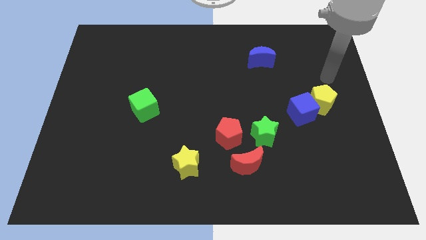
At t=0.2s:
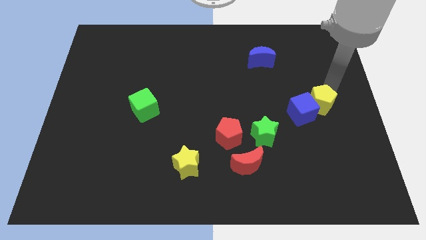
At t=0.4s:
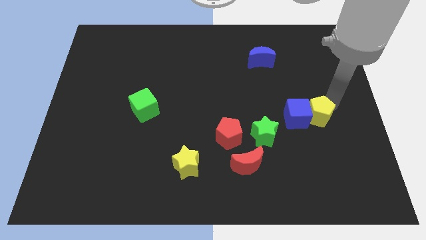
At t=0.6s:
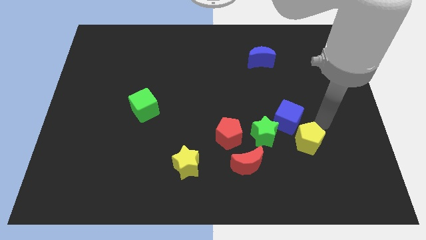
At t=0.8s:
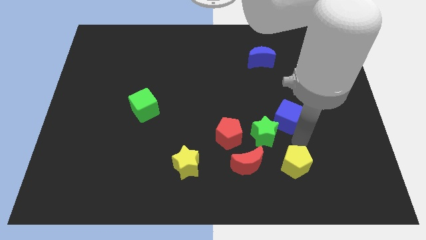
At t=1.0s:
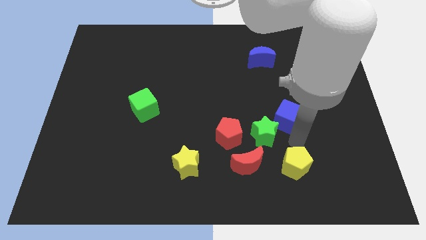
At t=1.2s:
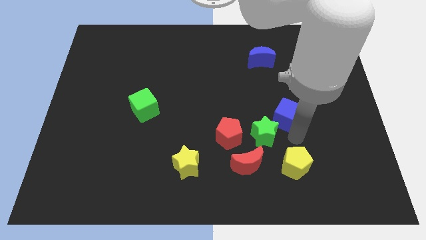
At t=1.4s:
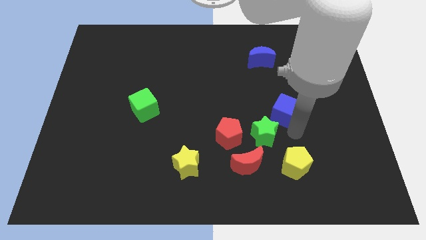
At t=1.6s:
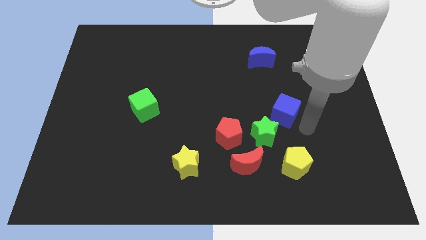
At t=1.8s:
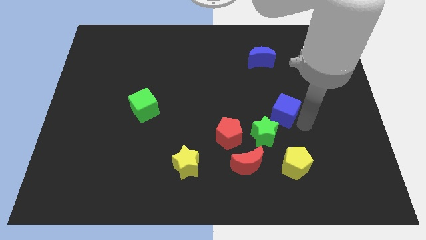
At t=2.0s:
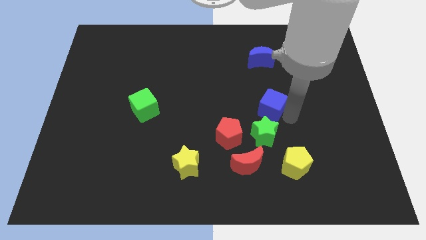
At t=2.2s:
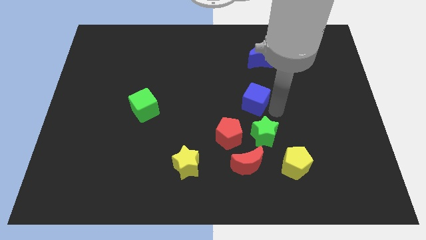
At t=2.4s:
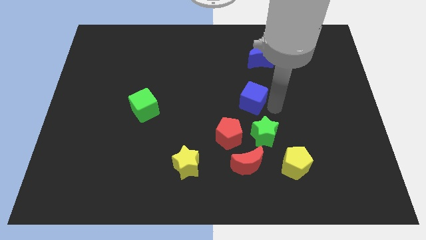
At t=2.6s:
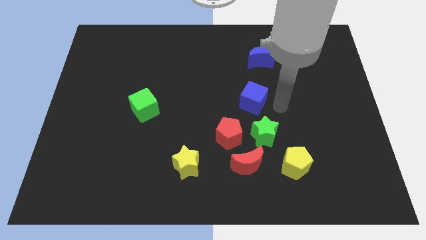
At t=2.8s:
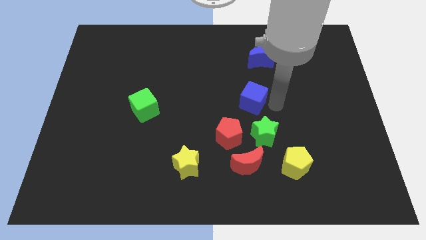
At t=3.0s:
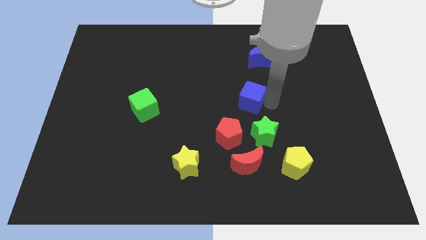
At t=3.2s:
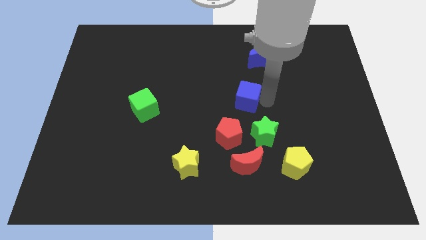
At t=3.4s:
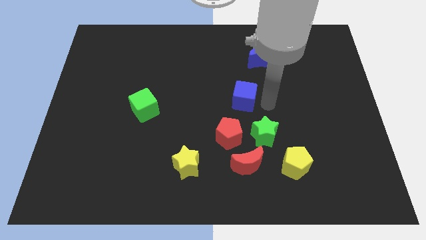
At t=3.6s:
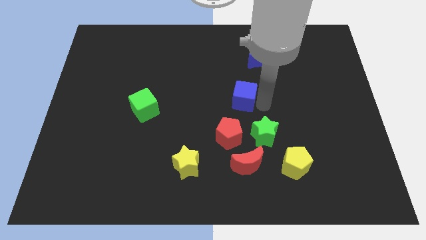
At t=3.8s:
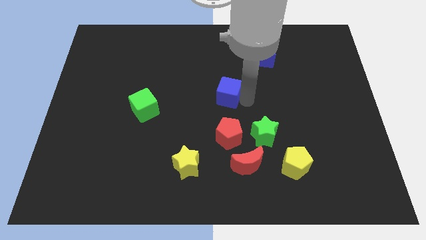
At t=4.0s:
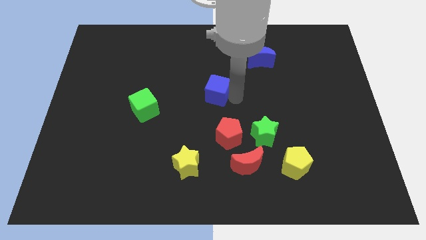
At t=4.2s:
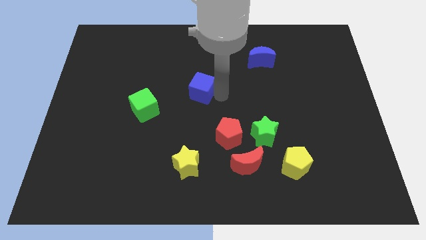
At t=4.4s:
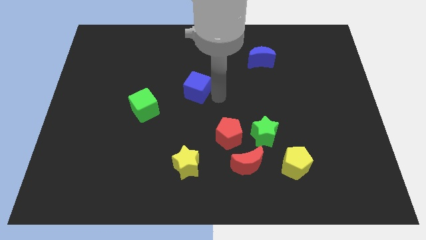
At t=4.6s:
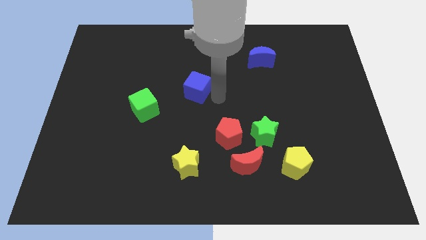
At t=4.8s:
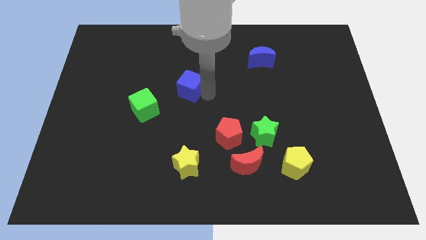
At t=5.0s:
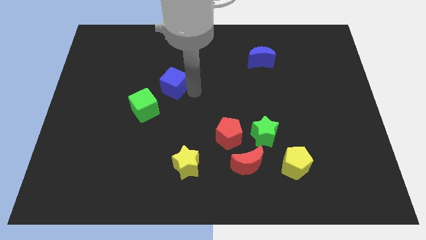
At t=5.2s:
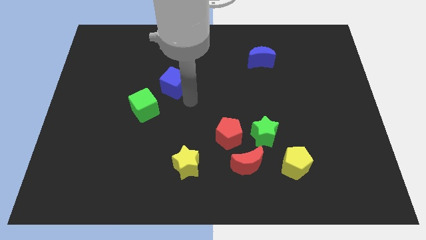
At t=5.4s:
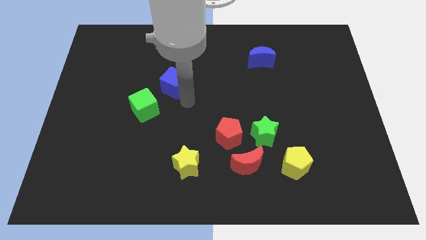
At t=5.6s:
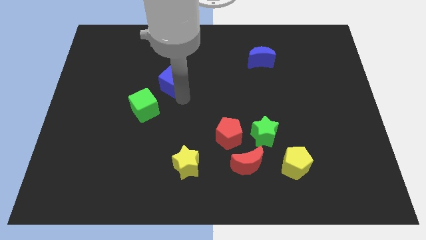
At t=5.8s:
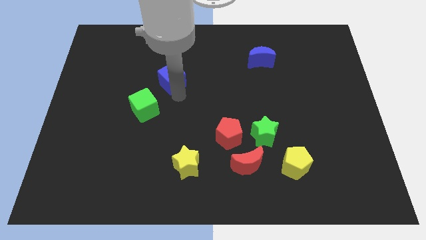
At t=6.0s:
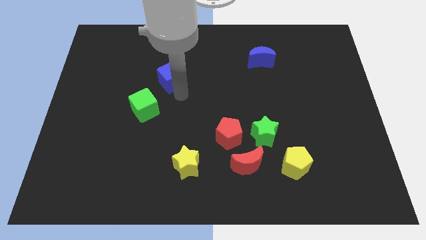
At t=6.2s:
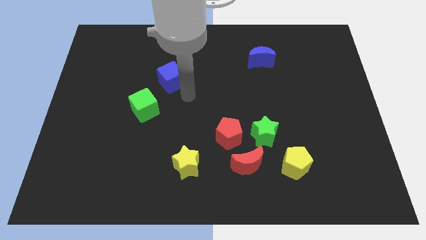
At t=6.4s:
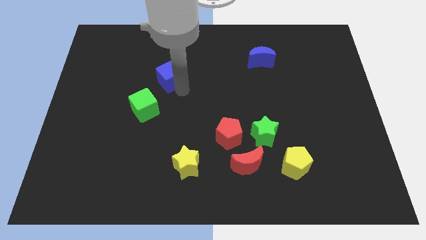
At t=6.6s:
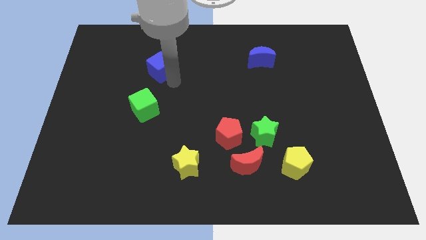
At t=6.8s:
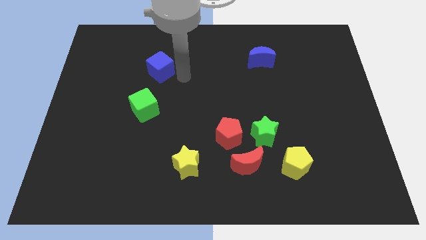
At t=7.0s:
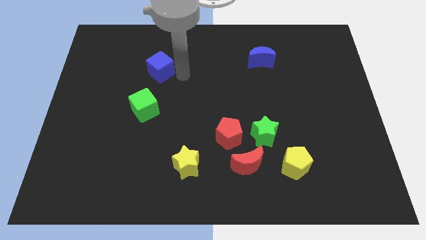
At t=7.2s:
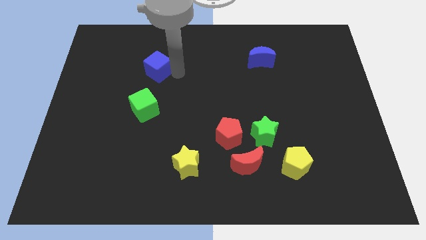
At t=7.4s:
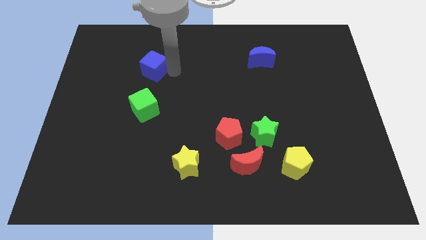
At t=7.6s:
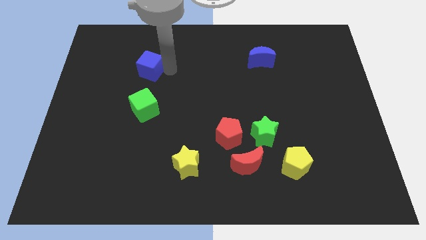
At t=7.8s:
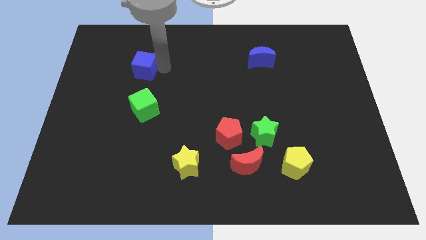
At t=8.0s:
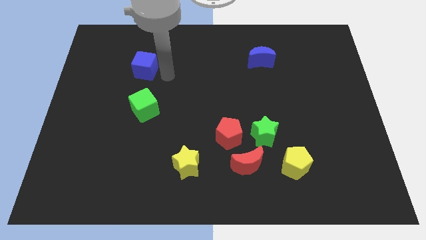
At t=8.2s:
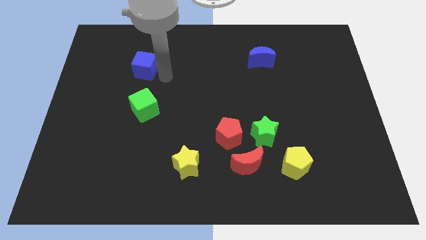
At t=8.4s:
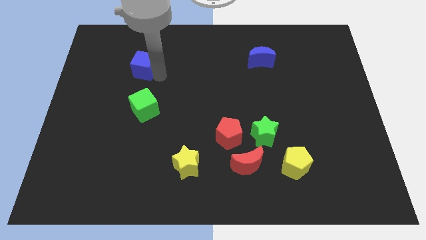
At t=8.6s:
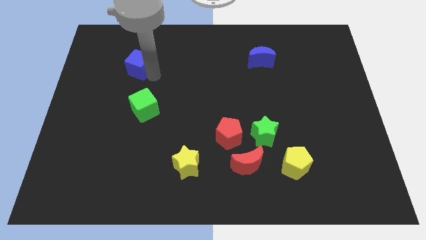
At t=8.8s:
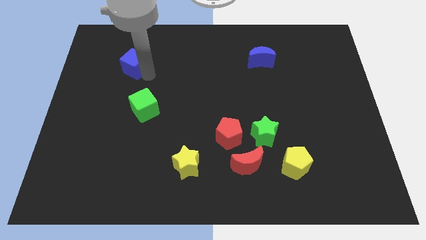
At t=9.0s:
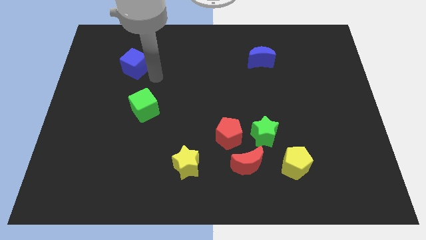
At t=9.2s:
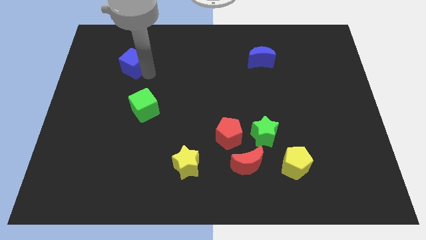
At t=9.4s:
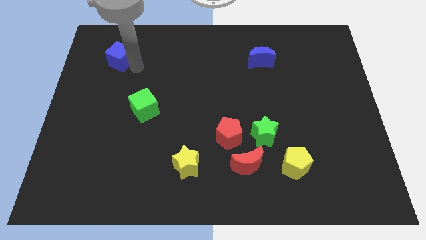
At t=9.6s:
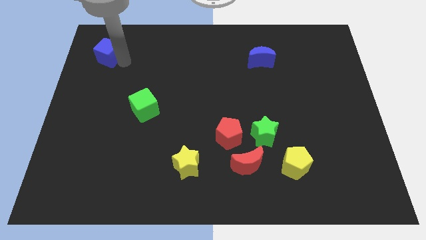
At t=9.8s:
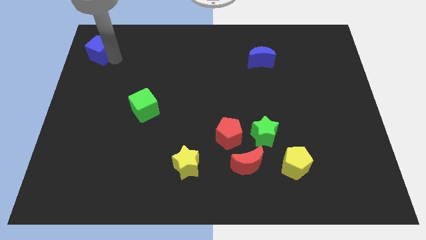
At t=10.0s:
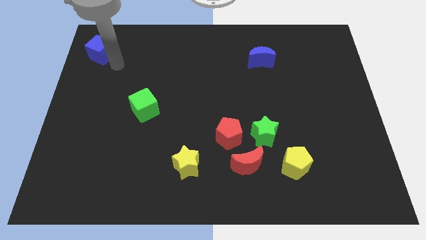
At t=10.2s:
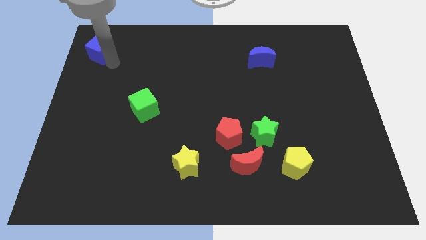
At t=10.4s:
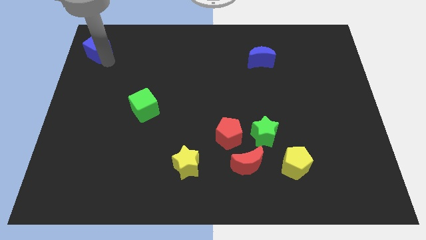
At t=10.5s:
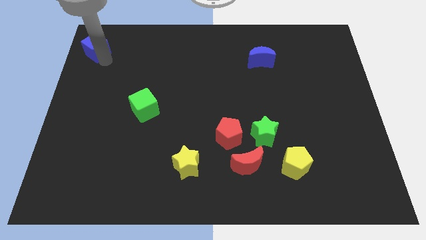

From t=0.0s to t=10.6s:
put the blue cube to the top left corner

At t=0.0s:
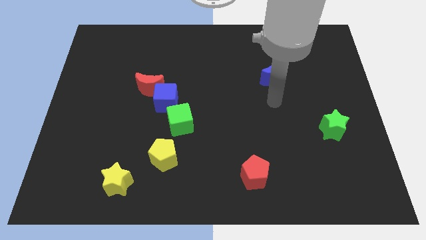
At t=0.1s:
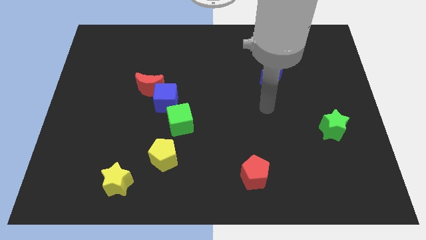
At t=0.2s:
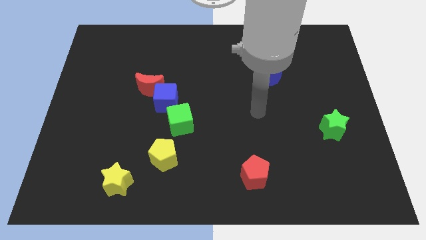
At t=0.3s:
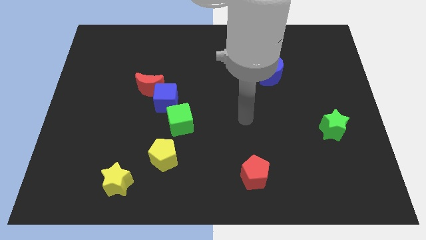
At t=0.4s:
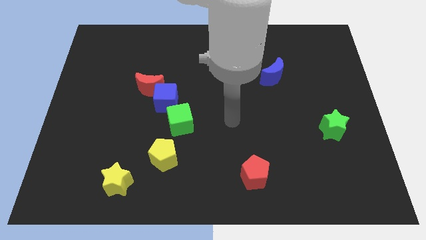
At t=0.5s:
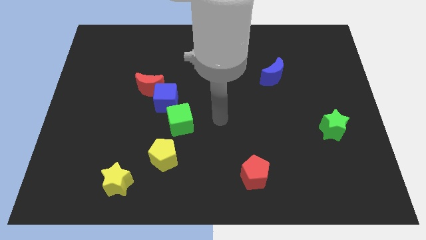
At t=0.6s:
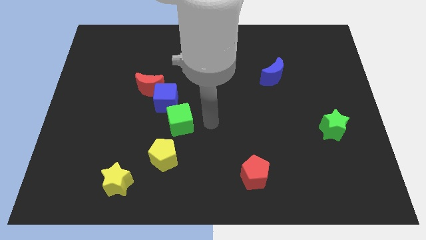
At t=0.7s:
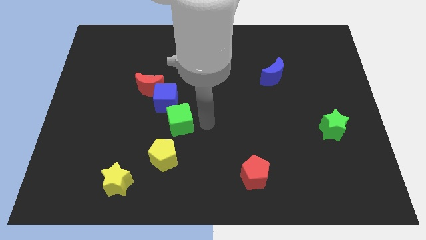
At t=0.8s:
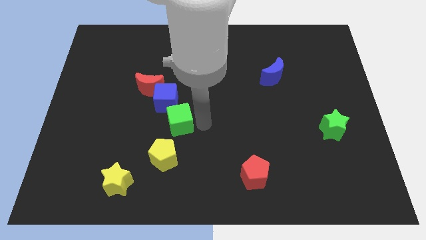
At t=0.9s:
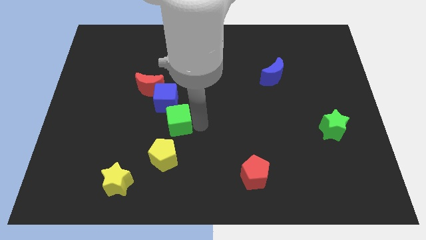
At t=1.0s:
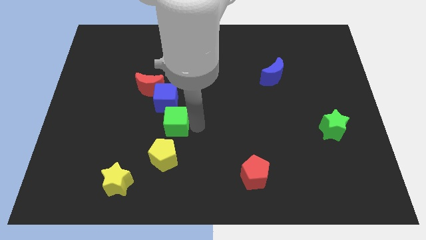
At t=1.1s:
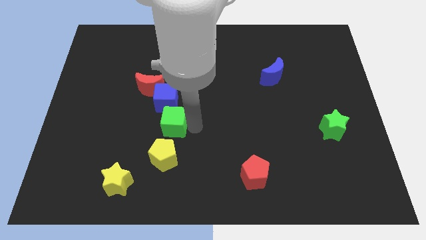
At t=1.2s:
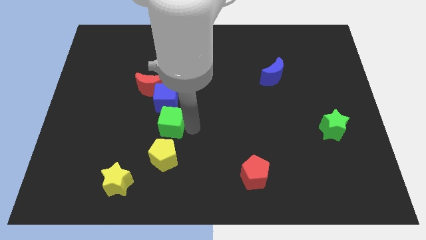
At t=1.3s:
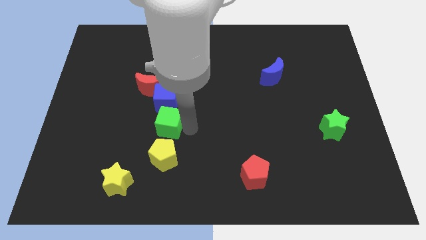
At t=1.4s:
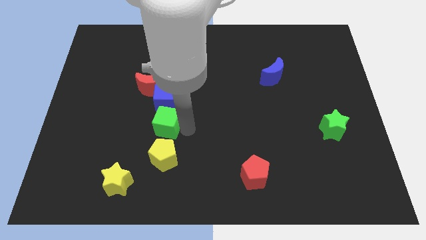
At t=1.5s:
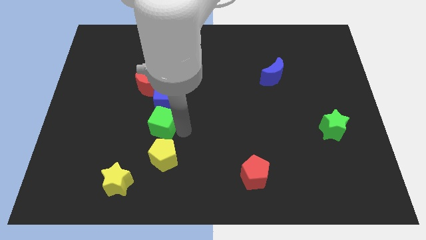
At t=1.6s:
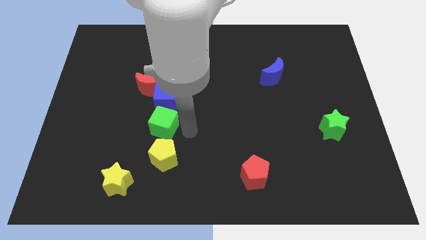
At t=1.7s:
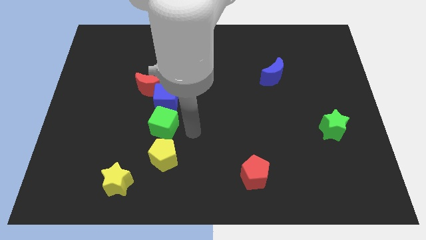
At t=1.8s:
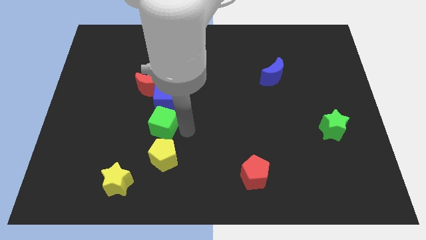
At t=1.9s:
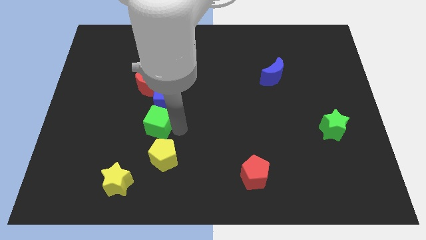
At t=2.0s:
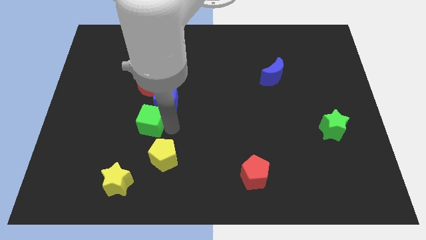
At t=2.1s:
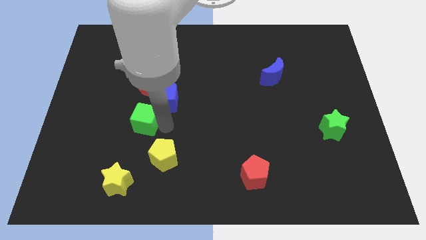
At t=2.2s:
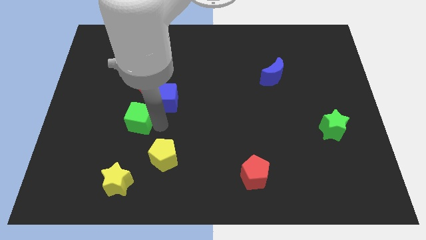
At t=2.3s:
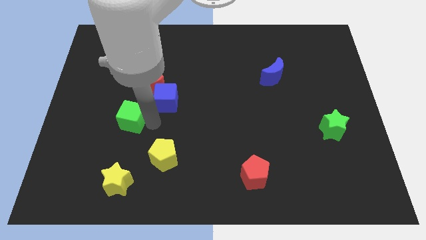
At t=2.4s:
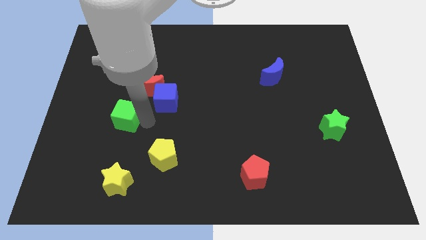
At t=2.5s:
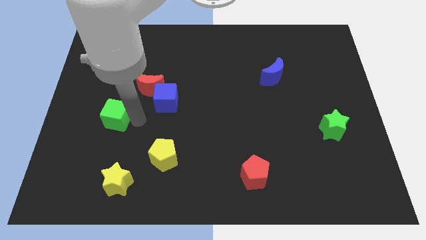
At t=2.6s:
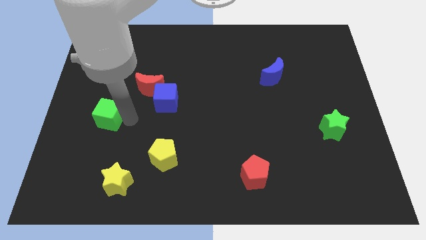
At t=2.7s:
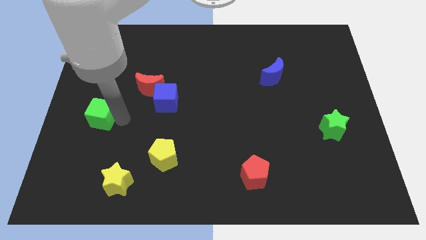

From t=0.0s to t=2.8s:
move the green cube to the center left
